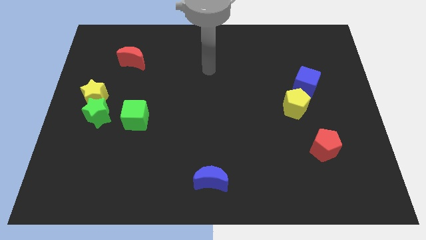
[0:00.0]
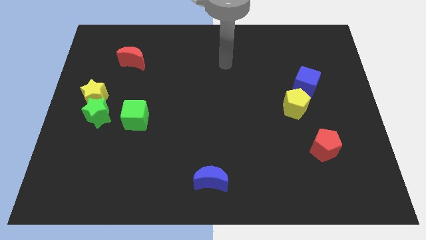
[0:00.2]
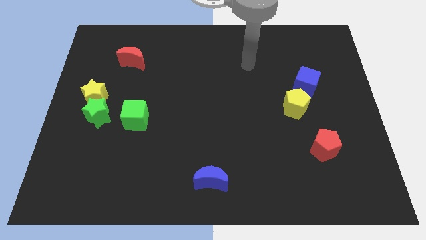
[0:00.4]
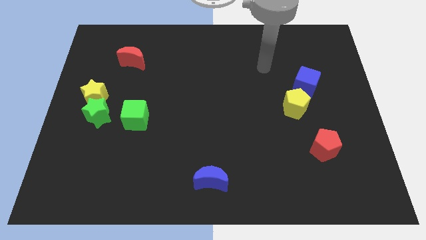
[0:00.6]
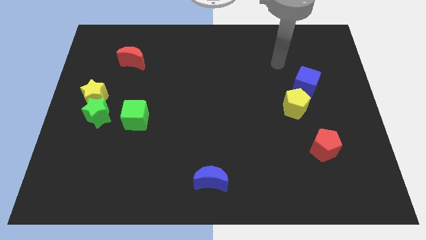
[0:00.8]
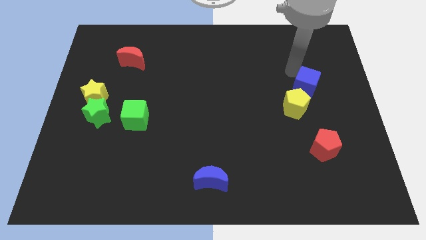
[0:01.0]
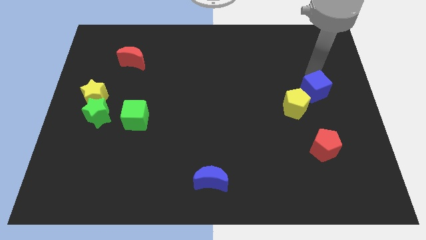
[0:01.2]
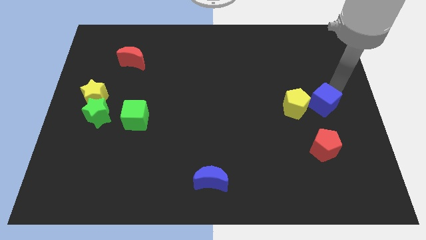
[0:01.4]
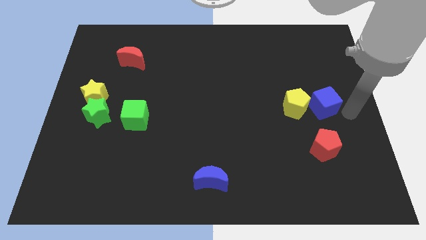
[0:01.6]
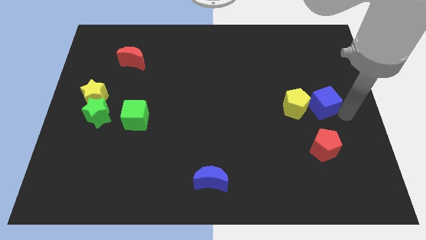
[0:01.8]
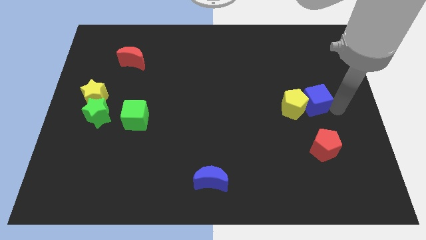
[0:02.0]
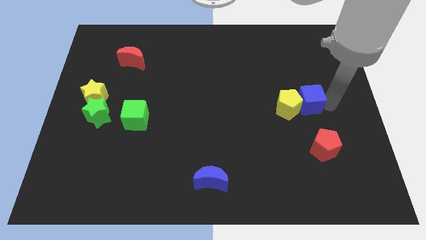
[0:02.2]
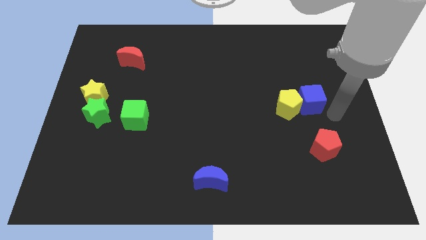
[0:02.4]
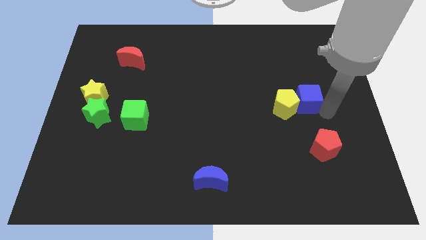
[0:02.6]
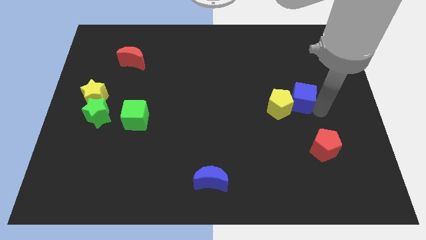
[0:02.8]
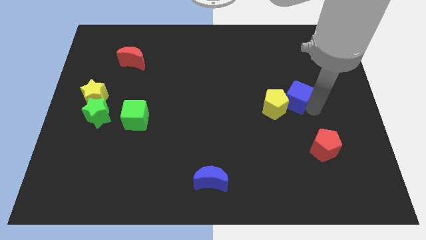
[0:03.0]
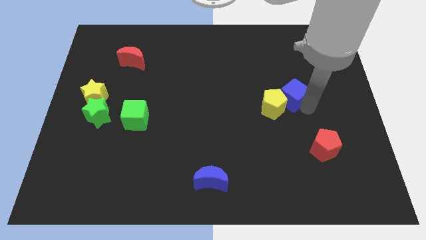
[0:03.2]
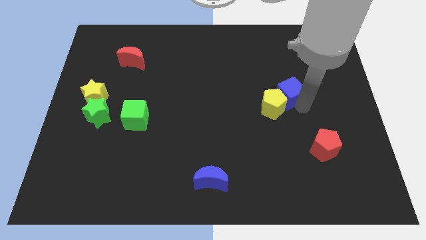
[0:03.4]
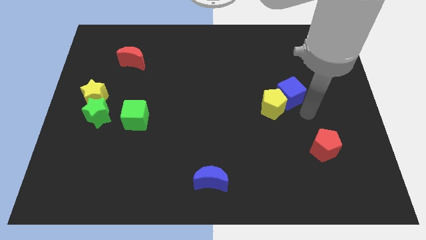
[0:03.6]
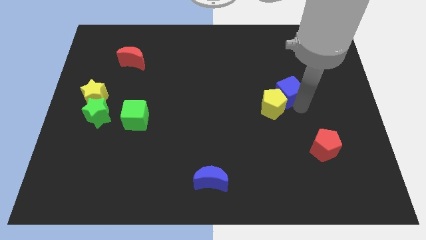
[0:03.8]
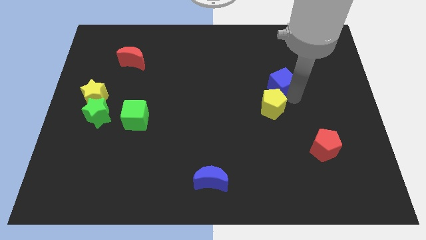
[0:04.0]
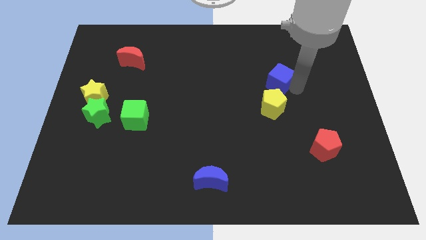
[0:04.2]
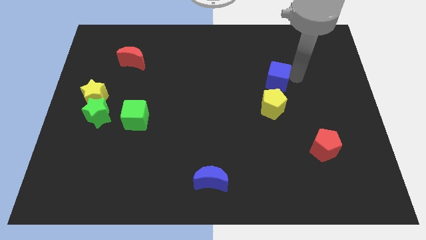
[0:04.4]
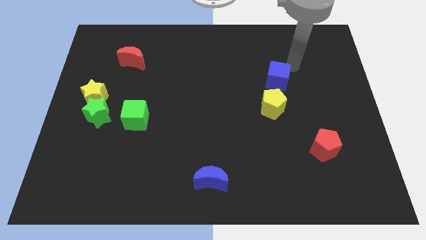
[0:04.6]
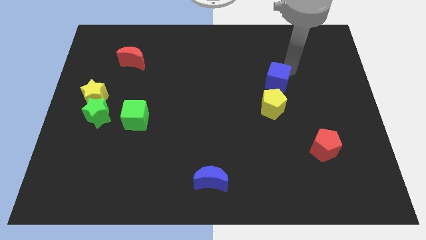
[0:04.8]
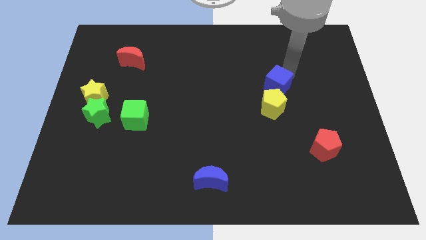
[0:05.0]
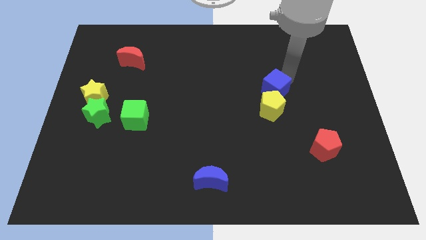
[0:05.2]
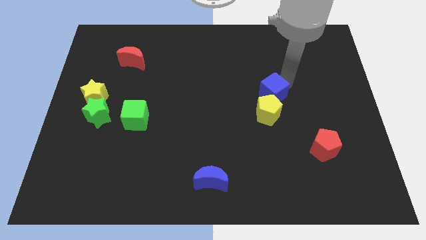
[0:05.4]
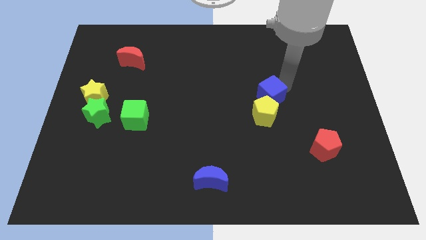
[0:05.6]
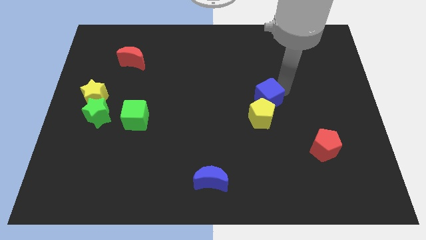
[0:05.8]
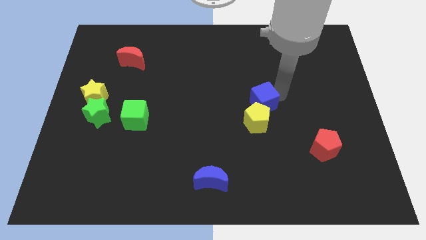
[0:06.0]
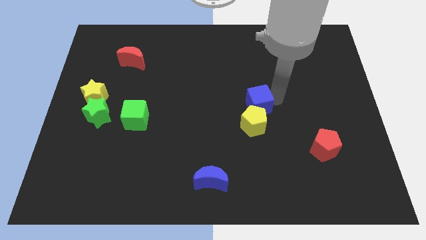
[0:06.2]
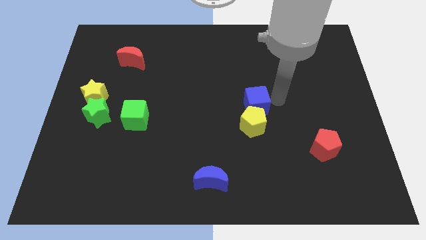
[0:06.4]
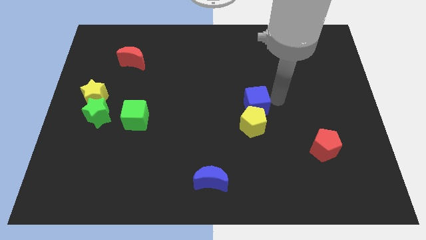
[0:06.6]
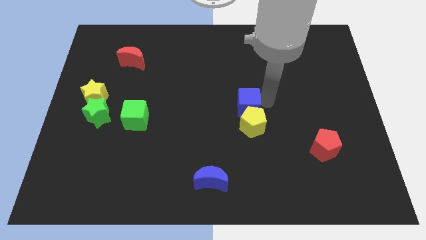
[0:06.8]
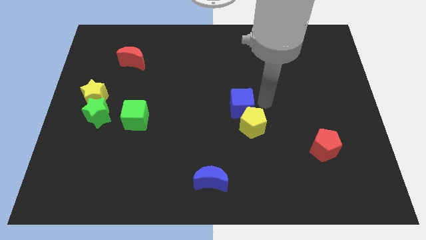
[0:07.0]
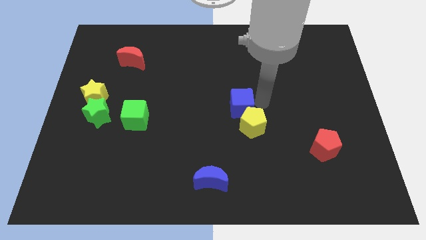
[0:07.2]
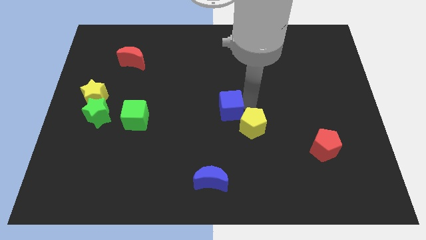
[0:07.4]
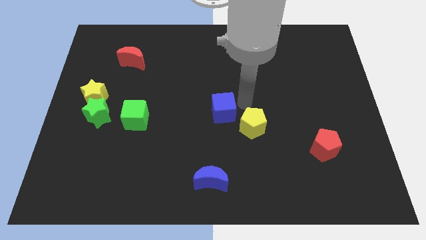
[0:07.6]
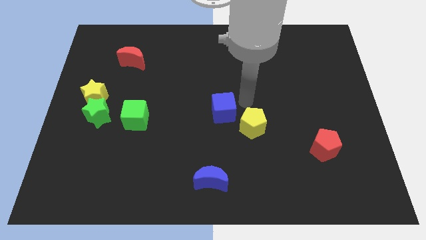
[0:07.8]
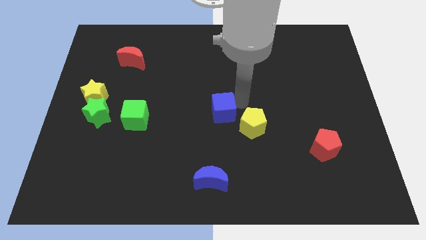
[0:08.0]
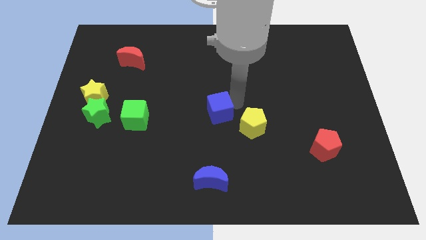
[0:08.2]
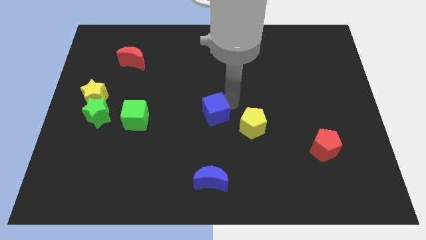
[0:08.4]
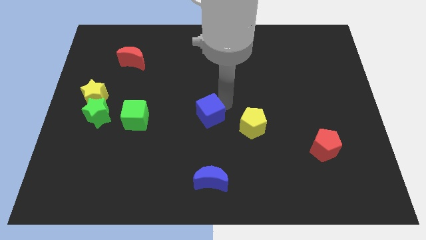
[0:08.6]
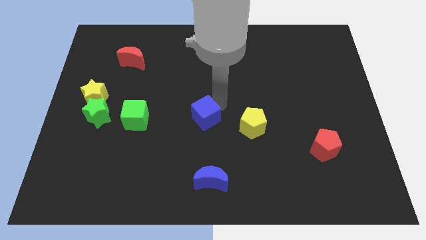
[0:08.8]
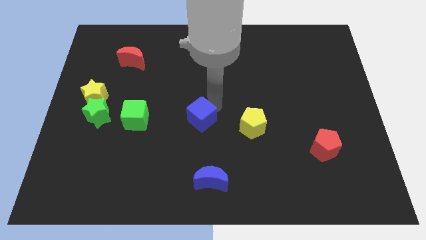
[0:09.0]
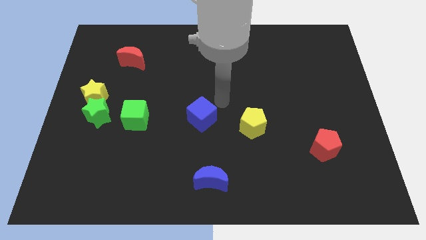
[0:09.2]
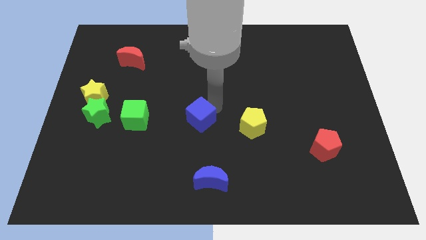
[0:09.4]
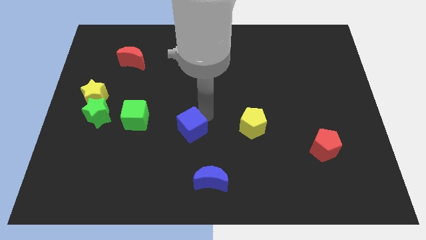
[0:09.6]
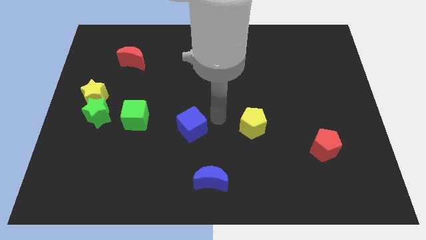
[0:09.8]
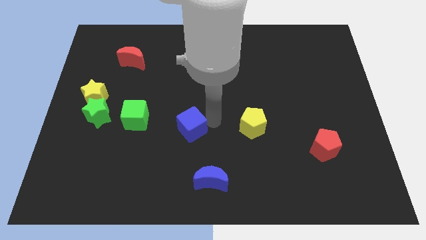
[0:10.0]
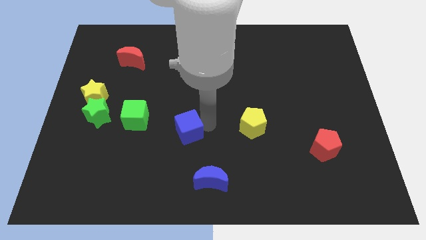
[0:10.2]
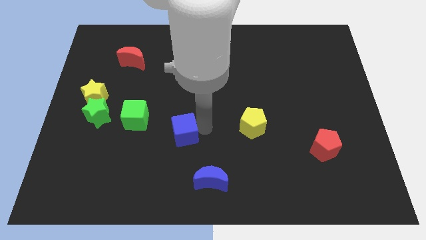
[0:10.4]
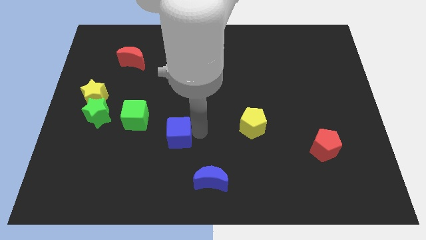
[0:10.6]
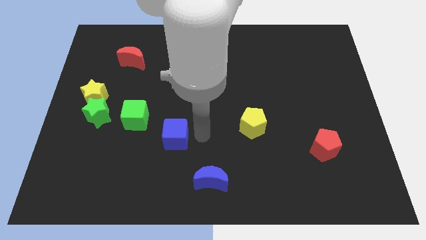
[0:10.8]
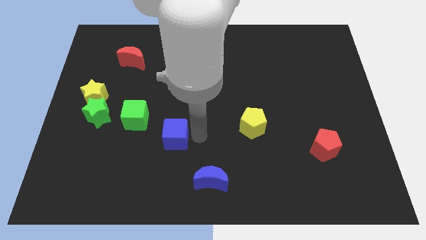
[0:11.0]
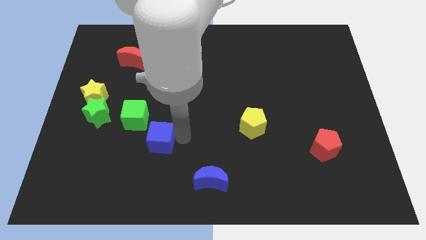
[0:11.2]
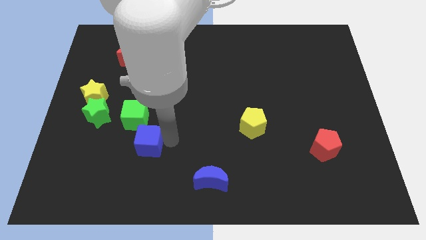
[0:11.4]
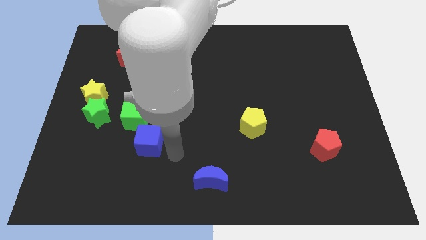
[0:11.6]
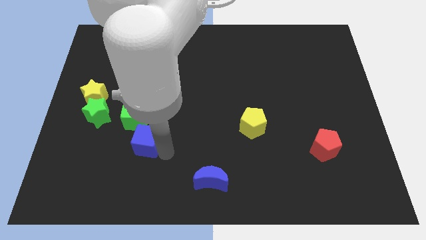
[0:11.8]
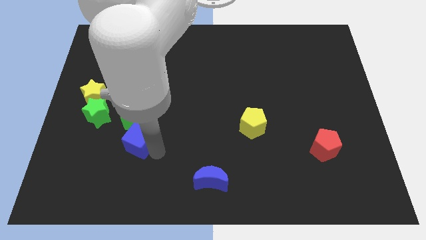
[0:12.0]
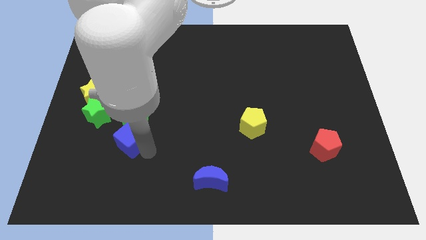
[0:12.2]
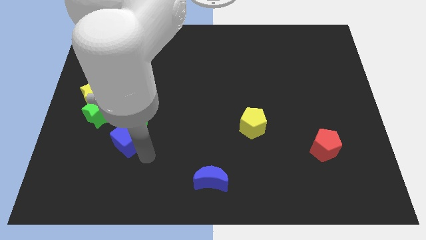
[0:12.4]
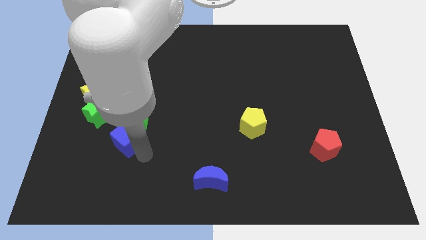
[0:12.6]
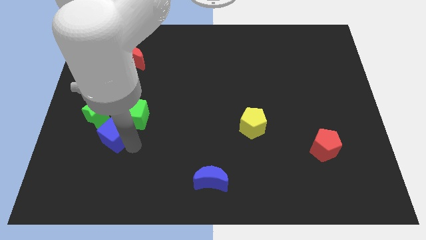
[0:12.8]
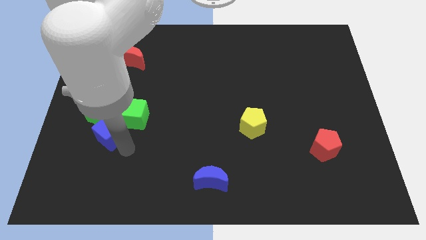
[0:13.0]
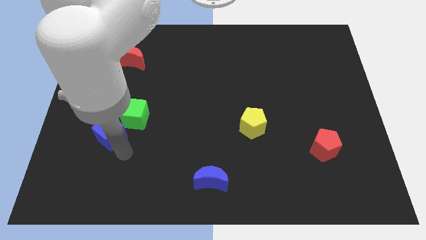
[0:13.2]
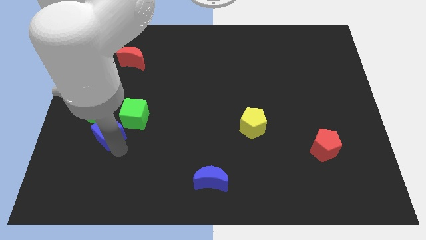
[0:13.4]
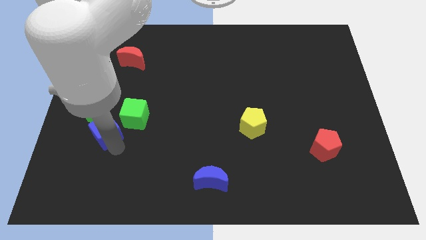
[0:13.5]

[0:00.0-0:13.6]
push the blue cube next to the green star

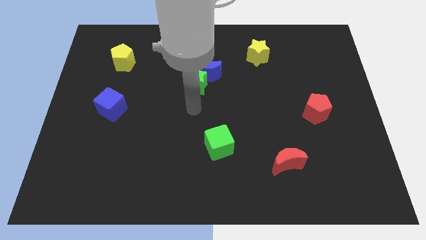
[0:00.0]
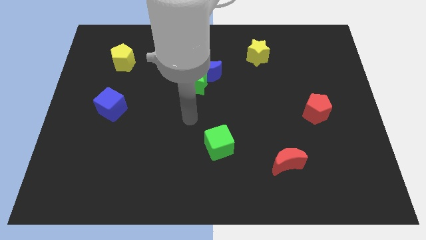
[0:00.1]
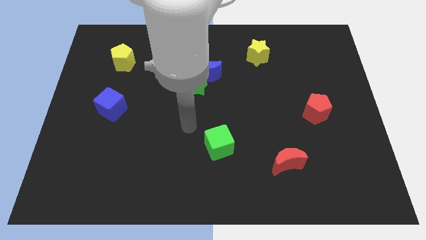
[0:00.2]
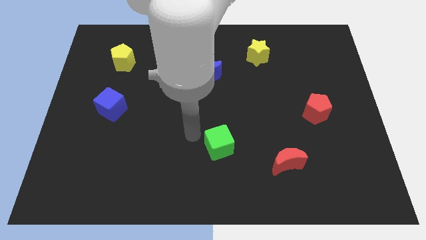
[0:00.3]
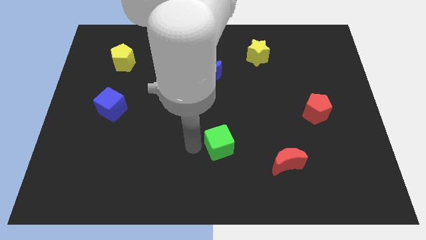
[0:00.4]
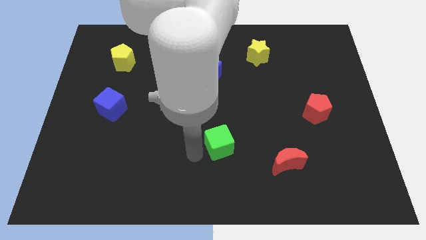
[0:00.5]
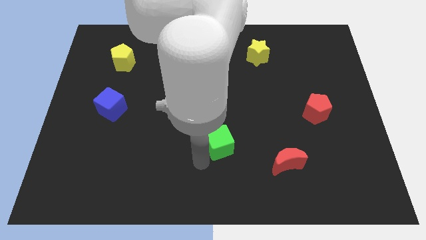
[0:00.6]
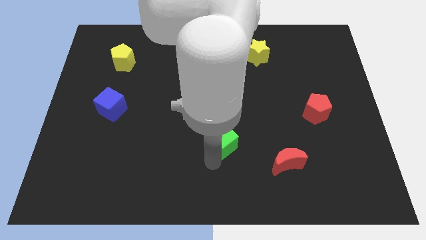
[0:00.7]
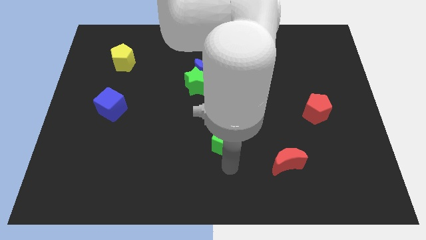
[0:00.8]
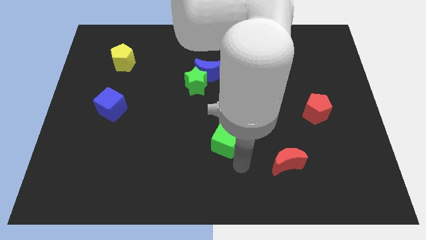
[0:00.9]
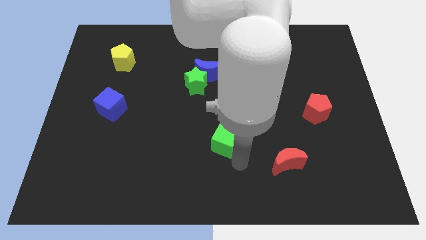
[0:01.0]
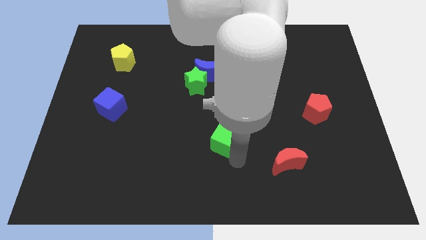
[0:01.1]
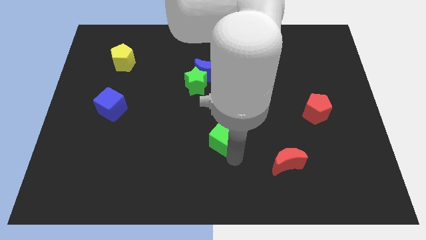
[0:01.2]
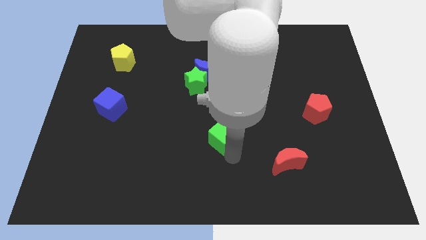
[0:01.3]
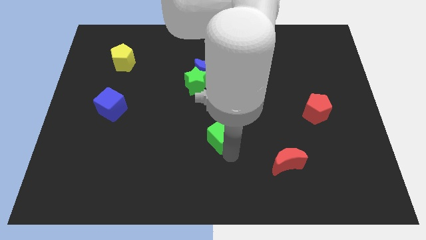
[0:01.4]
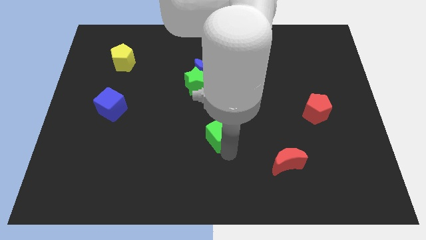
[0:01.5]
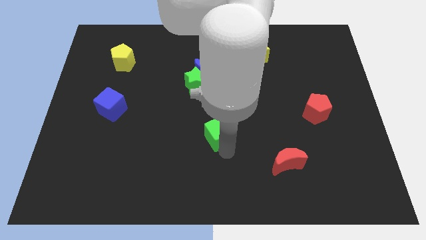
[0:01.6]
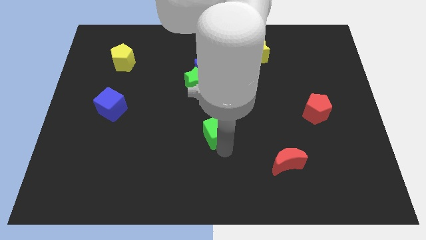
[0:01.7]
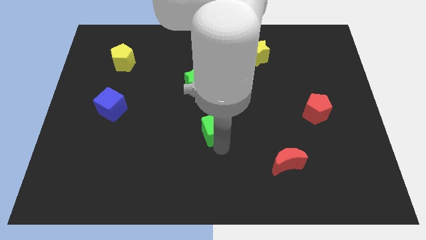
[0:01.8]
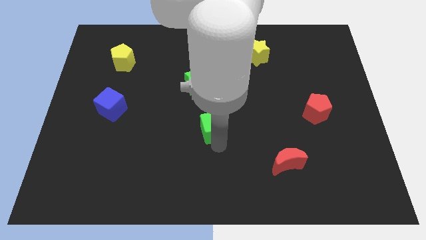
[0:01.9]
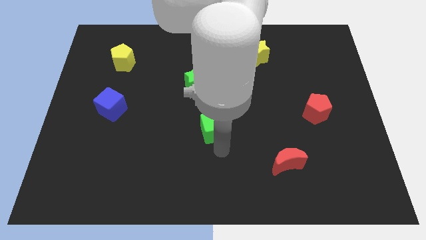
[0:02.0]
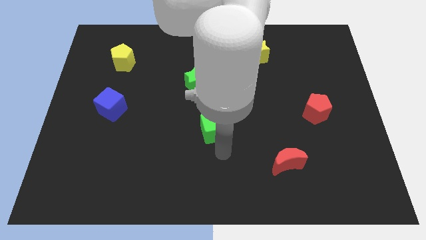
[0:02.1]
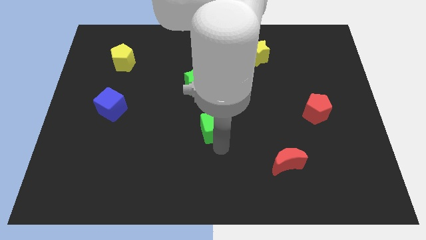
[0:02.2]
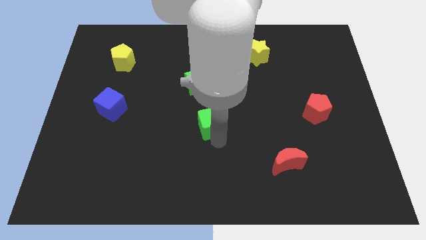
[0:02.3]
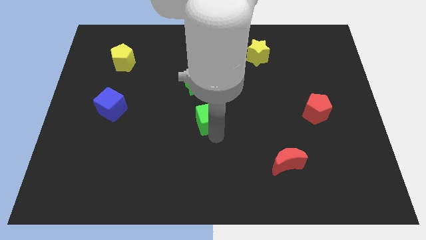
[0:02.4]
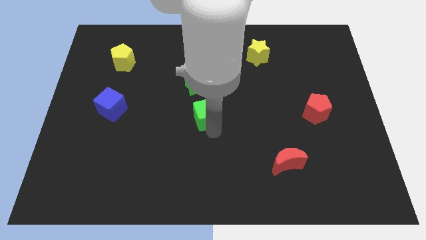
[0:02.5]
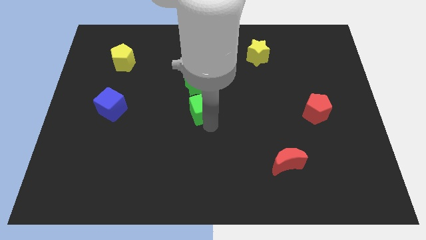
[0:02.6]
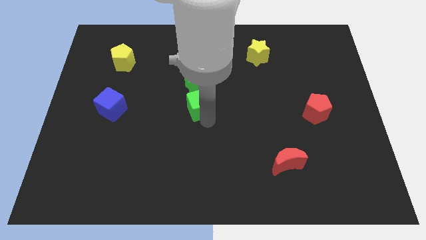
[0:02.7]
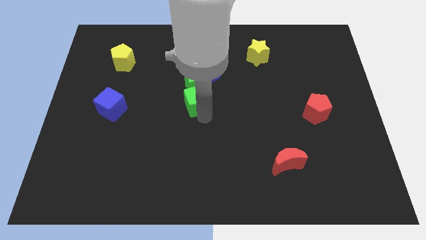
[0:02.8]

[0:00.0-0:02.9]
put the green cube next to the green star
